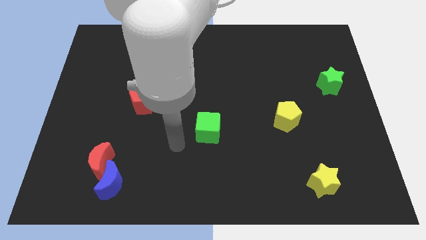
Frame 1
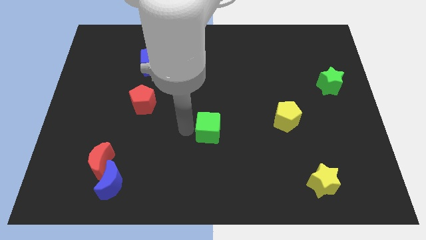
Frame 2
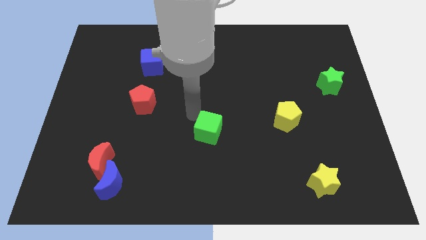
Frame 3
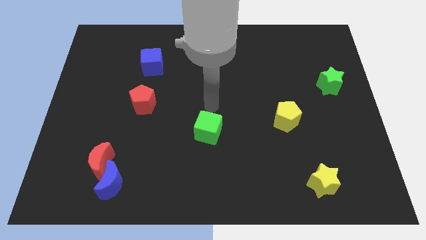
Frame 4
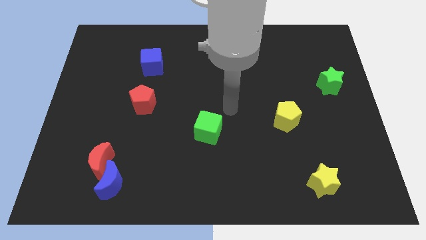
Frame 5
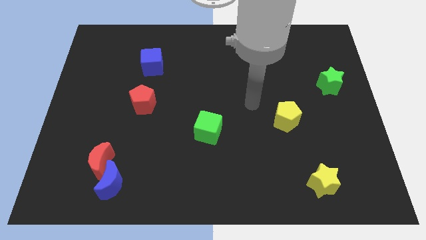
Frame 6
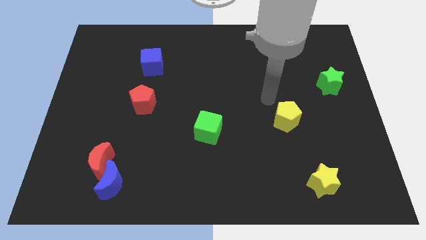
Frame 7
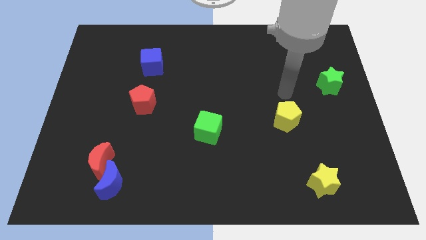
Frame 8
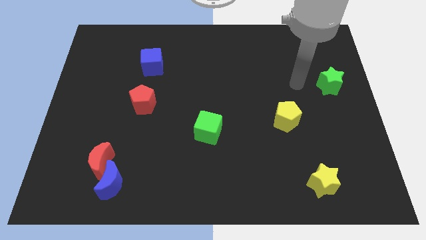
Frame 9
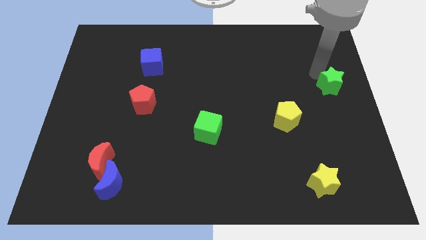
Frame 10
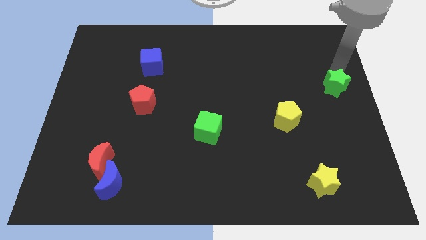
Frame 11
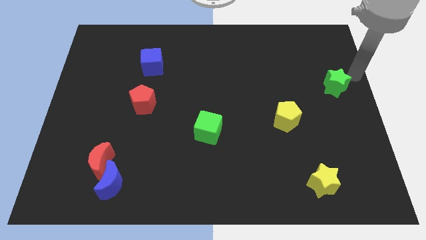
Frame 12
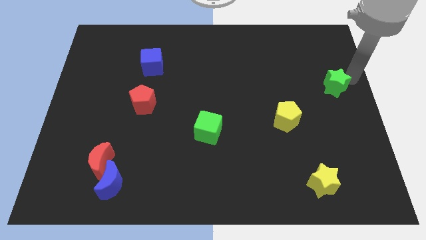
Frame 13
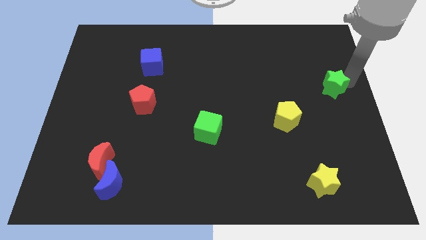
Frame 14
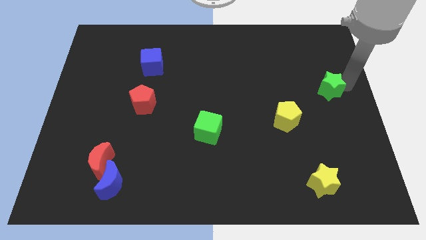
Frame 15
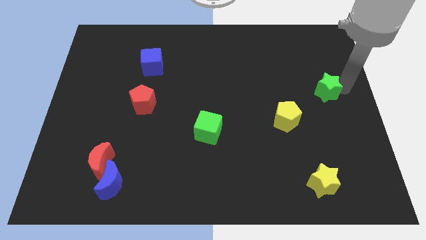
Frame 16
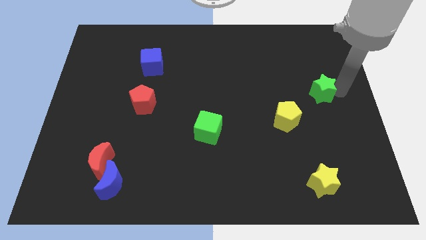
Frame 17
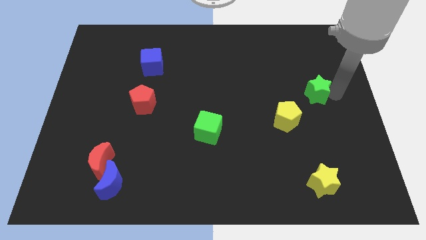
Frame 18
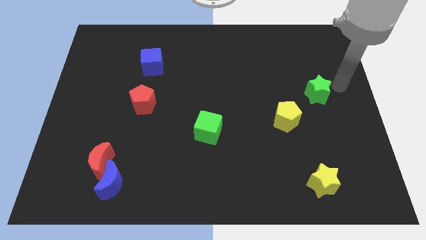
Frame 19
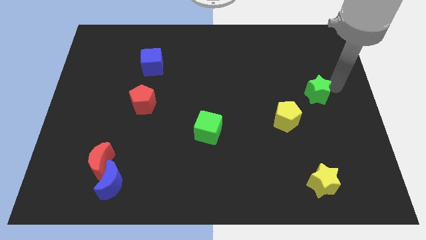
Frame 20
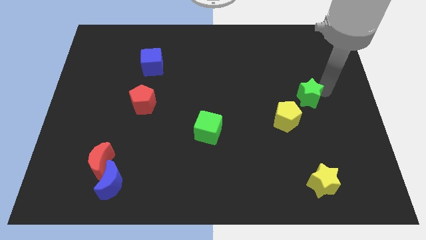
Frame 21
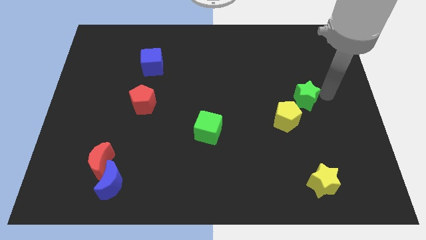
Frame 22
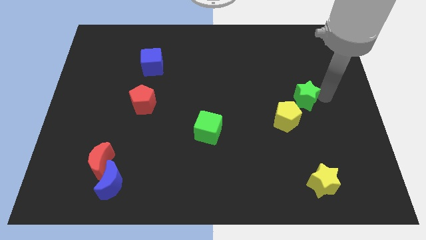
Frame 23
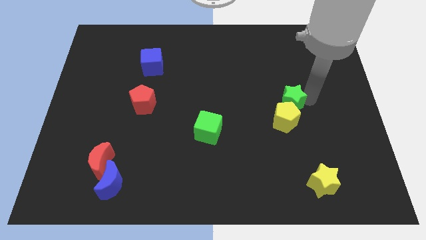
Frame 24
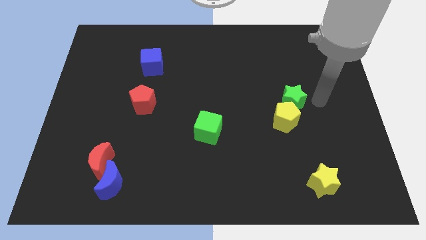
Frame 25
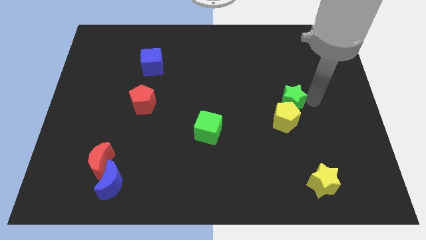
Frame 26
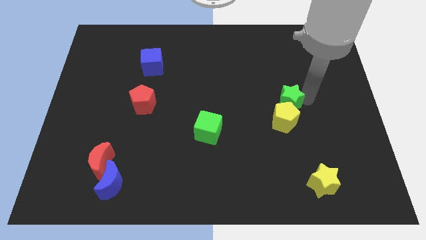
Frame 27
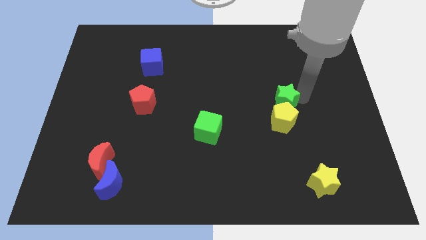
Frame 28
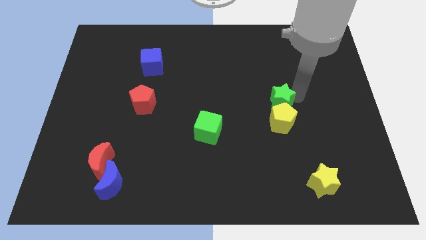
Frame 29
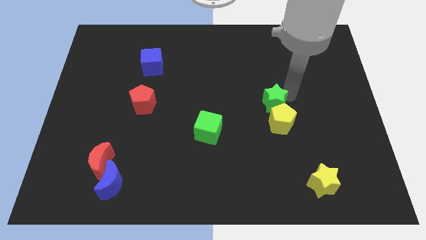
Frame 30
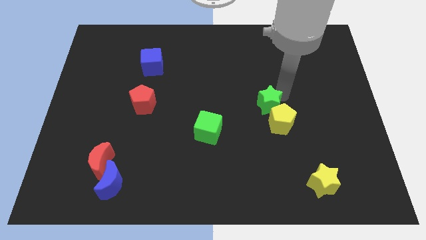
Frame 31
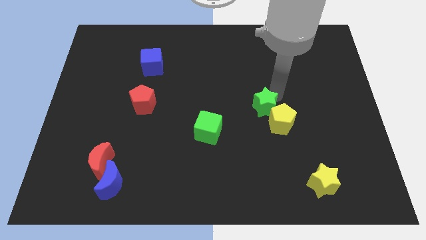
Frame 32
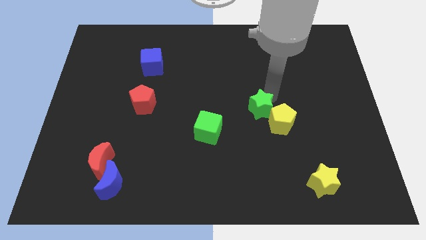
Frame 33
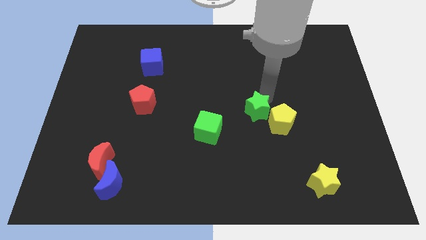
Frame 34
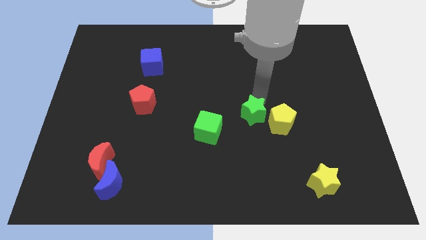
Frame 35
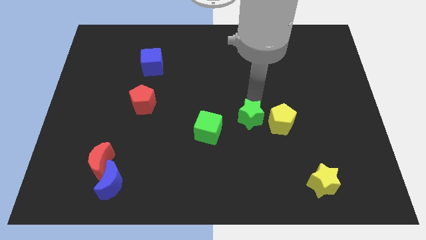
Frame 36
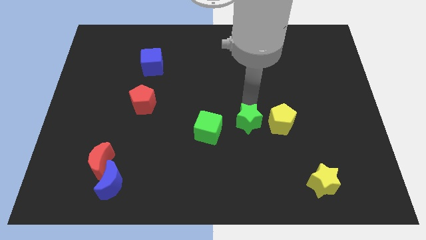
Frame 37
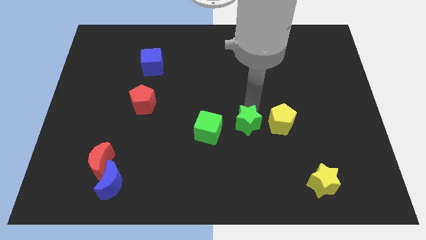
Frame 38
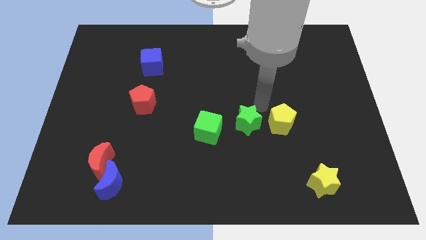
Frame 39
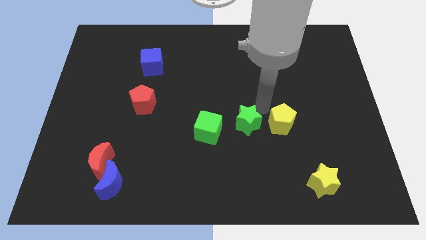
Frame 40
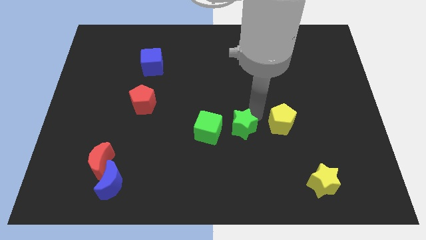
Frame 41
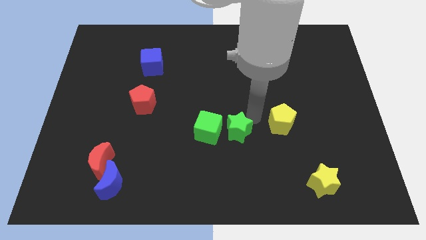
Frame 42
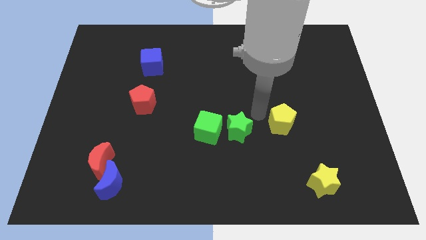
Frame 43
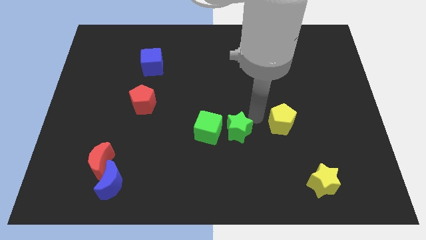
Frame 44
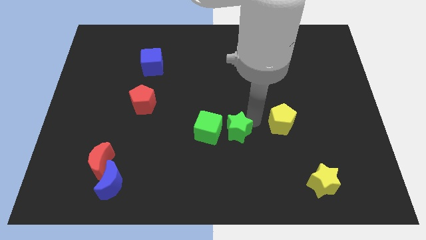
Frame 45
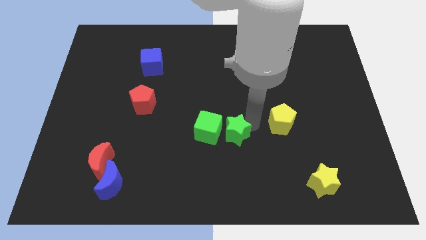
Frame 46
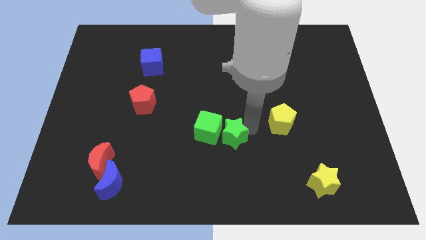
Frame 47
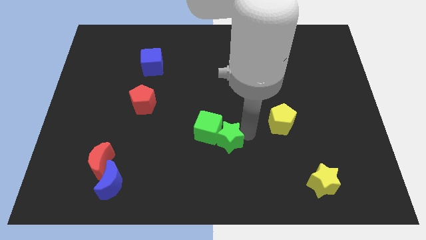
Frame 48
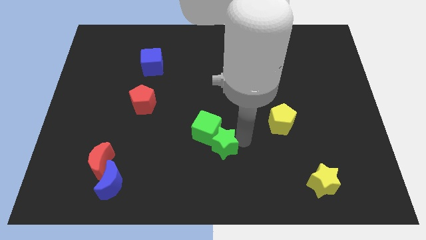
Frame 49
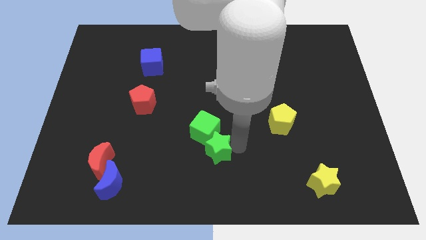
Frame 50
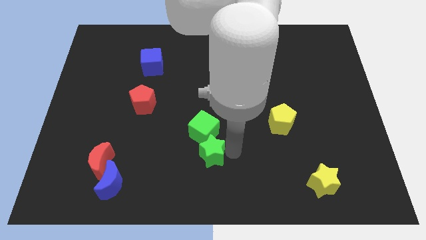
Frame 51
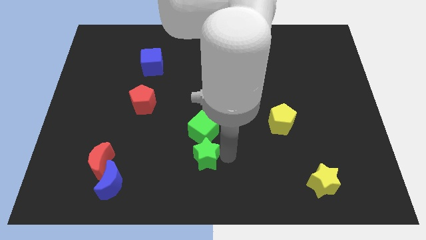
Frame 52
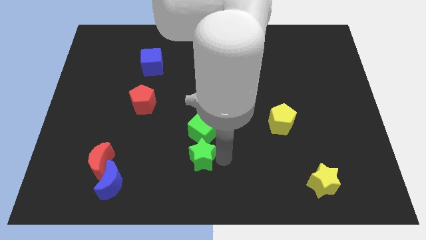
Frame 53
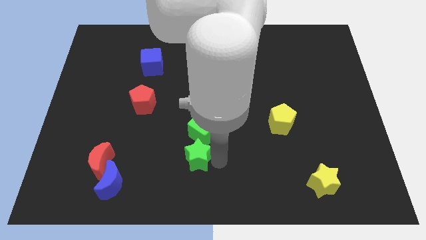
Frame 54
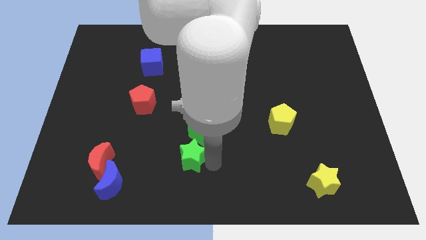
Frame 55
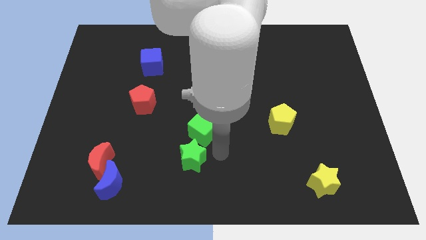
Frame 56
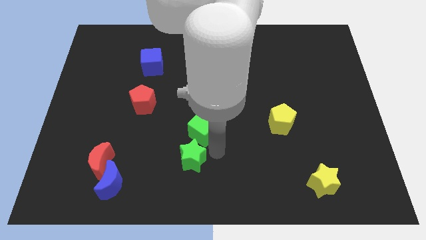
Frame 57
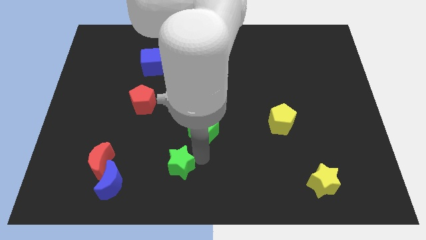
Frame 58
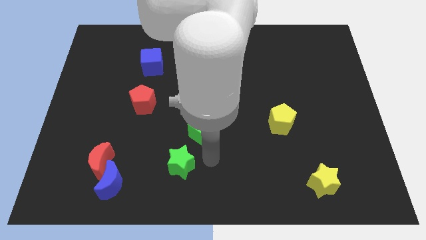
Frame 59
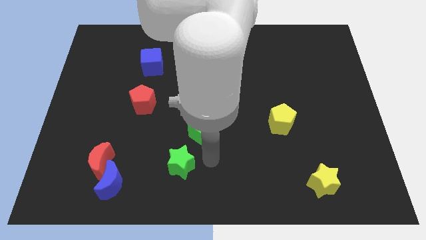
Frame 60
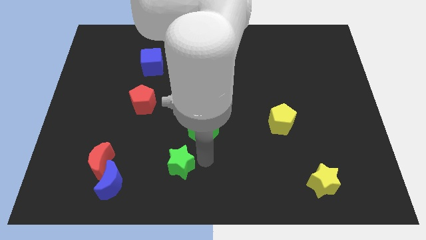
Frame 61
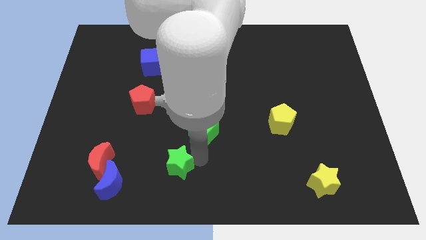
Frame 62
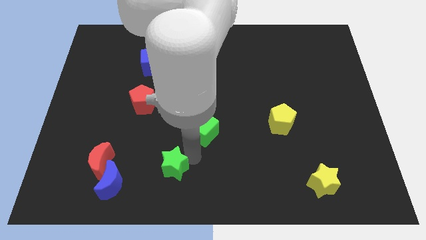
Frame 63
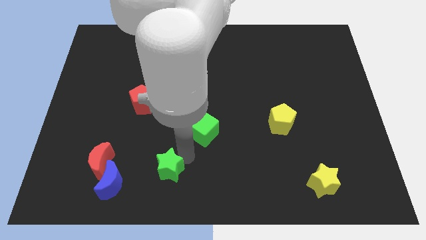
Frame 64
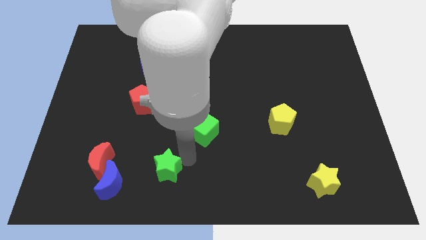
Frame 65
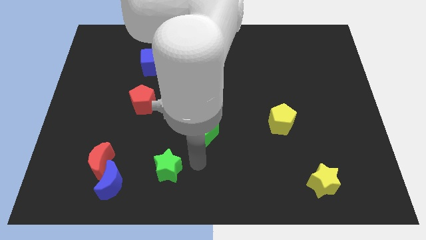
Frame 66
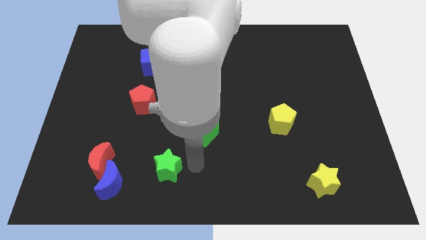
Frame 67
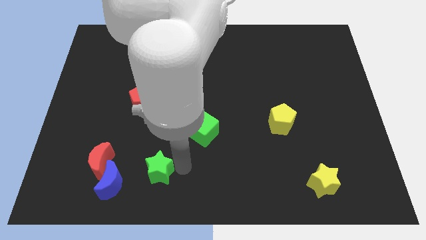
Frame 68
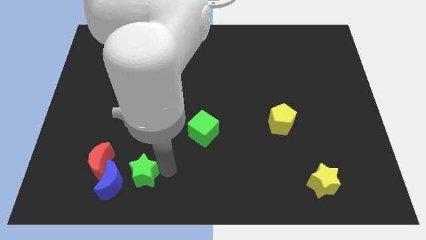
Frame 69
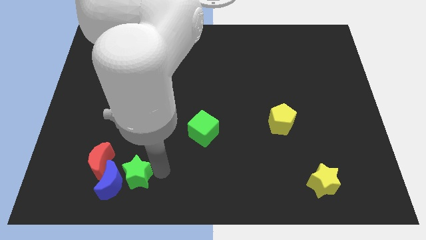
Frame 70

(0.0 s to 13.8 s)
push the green star to the blue moon
